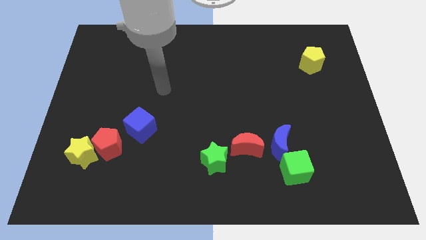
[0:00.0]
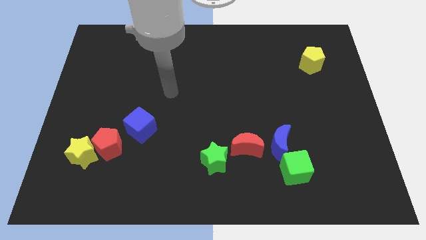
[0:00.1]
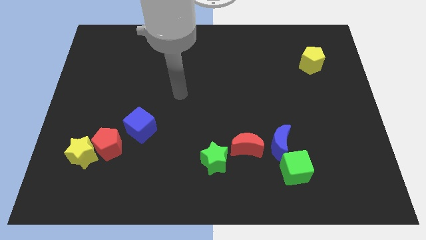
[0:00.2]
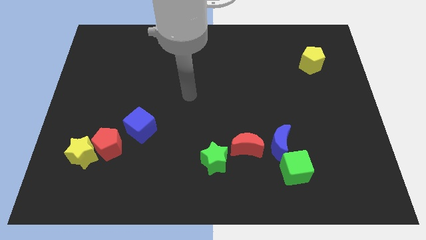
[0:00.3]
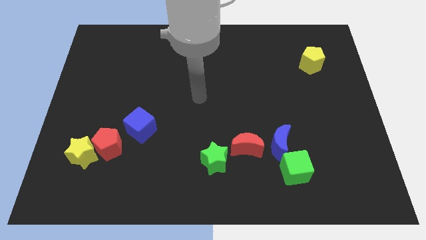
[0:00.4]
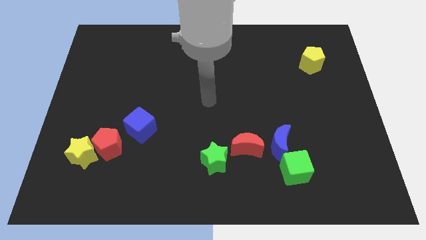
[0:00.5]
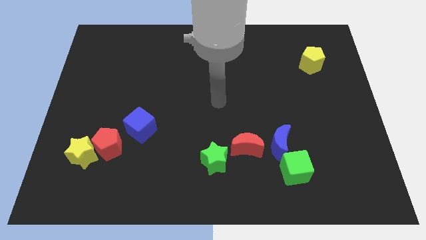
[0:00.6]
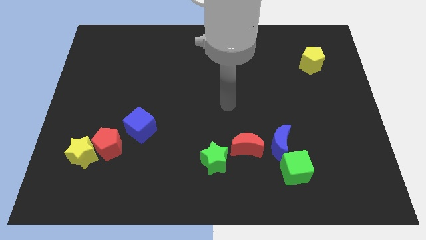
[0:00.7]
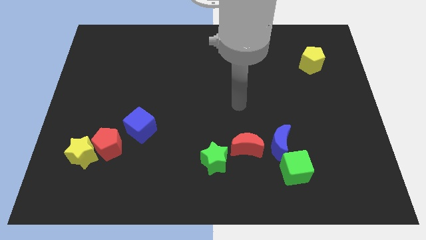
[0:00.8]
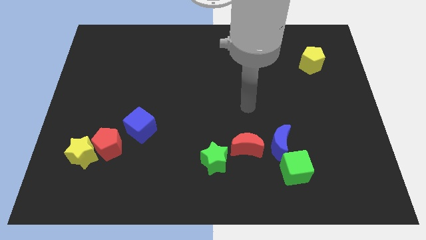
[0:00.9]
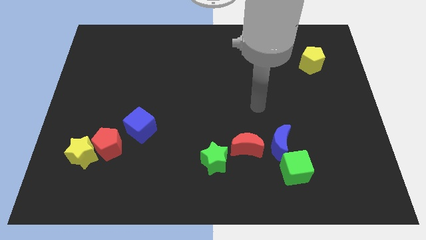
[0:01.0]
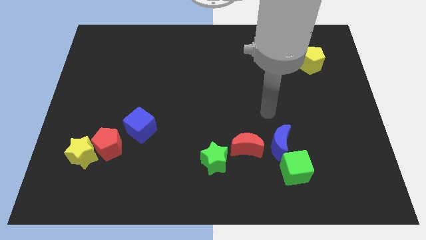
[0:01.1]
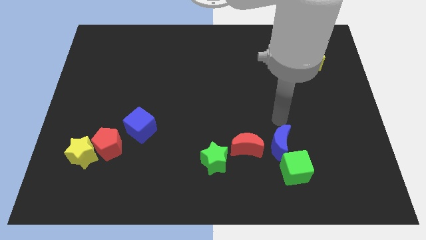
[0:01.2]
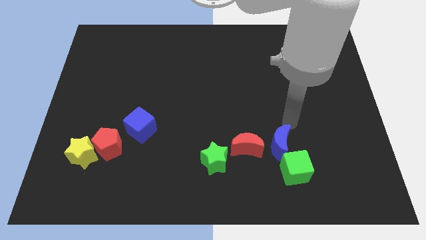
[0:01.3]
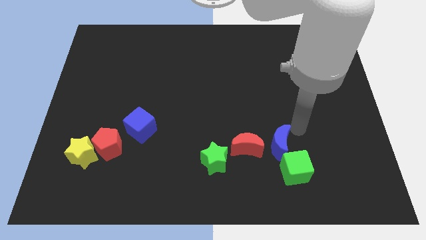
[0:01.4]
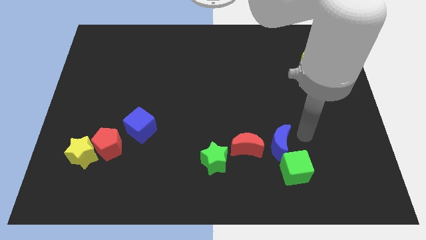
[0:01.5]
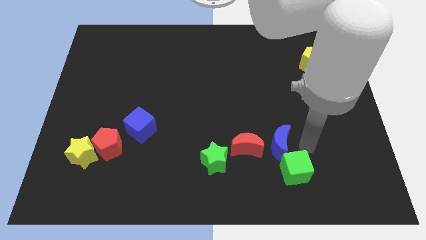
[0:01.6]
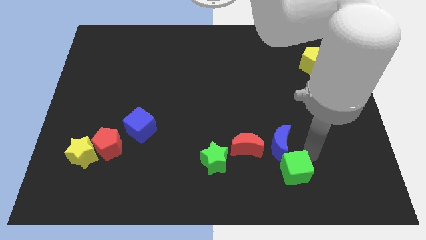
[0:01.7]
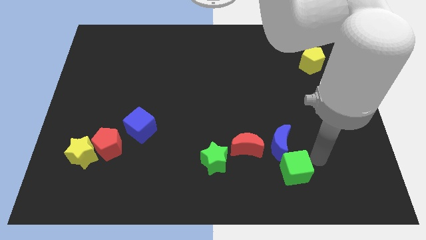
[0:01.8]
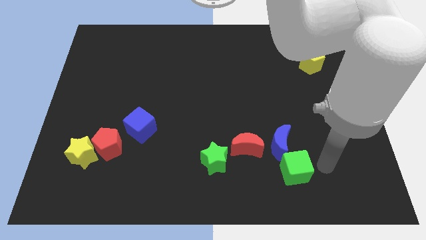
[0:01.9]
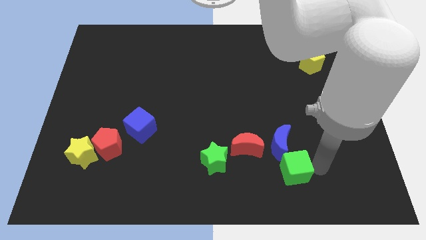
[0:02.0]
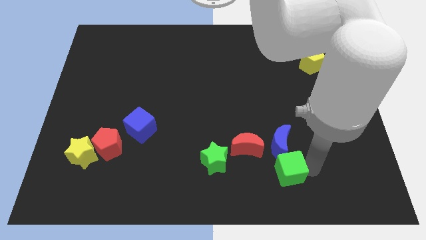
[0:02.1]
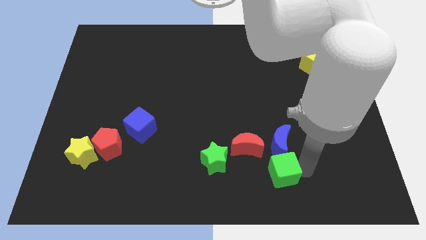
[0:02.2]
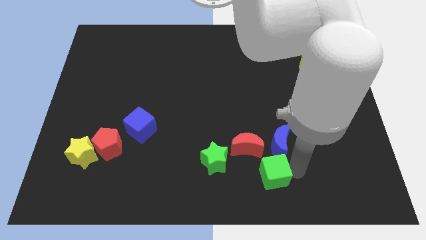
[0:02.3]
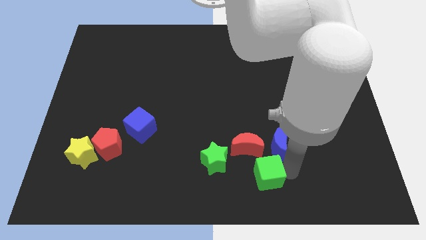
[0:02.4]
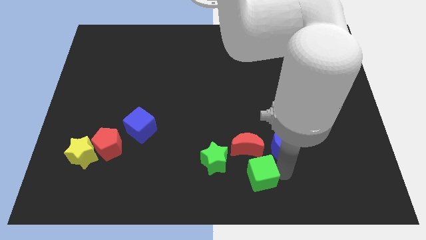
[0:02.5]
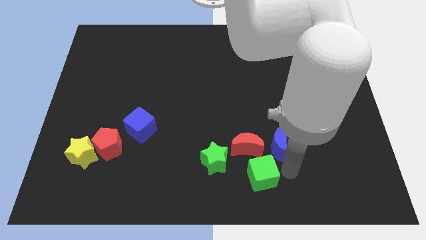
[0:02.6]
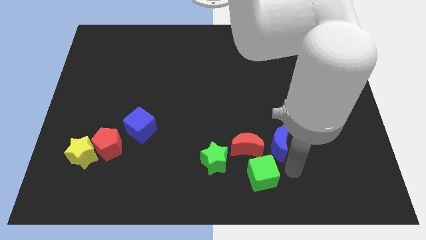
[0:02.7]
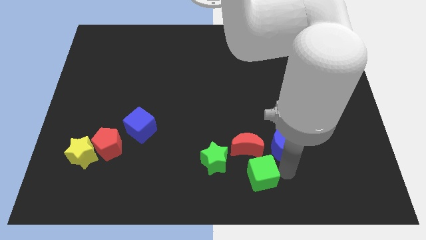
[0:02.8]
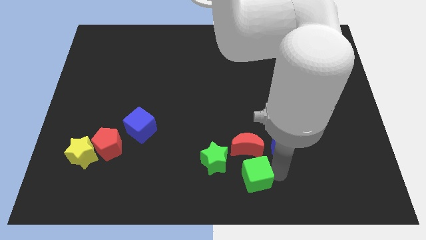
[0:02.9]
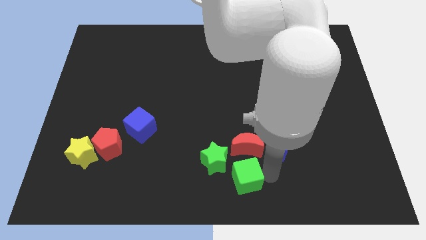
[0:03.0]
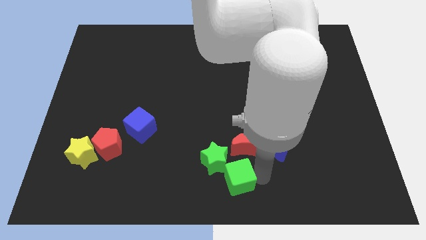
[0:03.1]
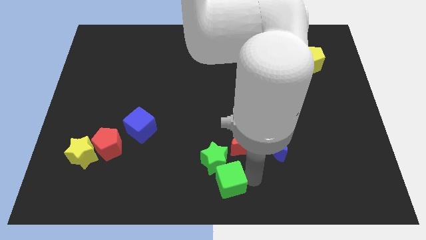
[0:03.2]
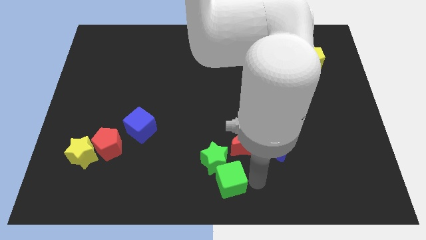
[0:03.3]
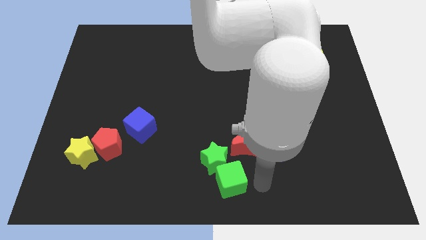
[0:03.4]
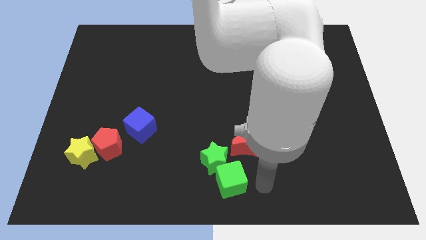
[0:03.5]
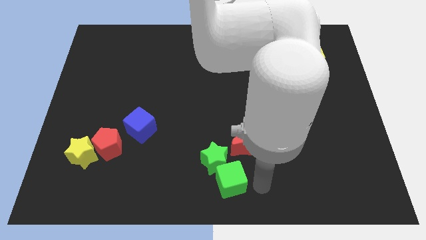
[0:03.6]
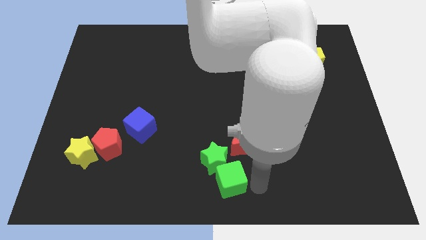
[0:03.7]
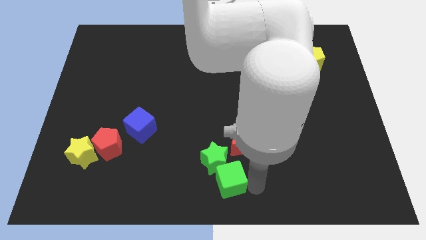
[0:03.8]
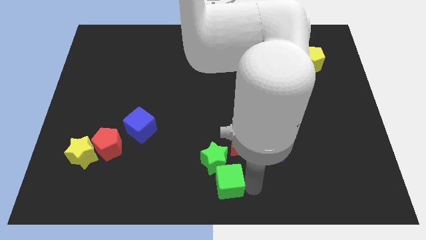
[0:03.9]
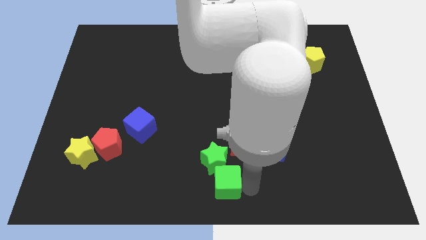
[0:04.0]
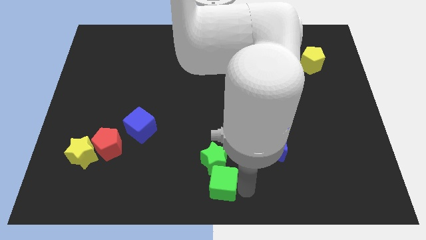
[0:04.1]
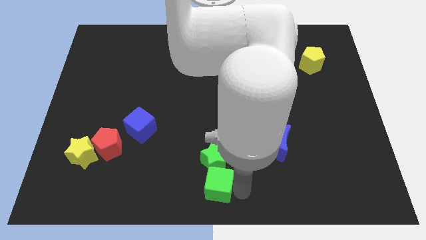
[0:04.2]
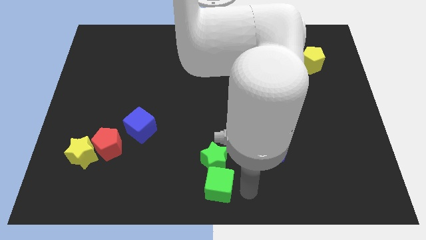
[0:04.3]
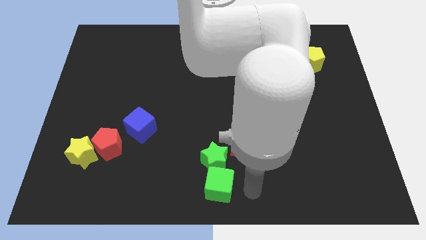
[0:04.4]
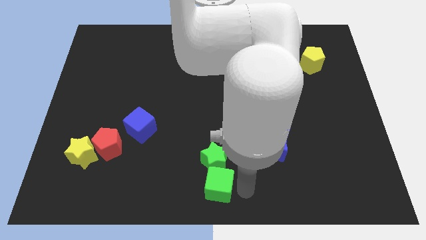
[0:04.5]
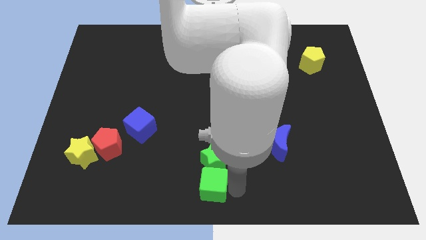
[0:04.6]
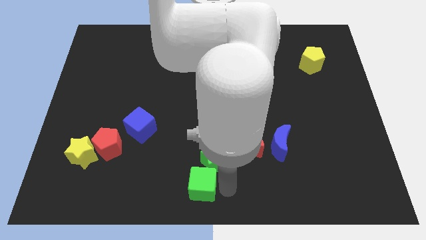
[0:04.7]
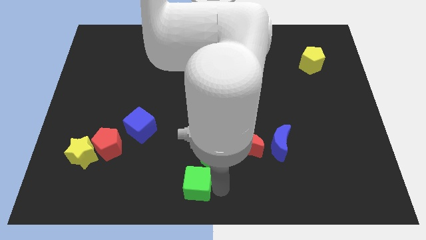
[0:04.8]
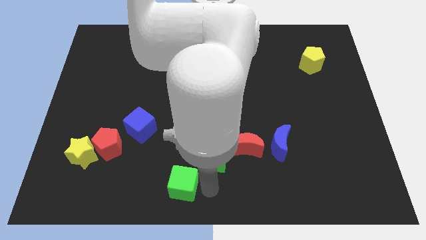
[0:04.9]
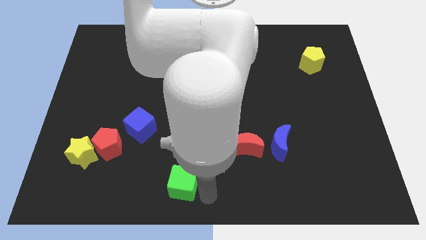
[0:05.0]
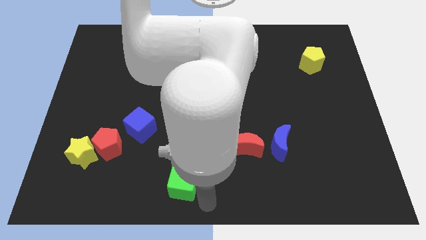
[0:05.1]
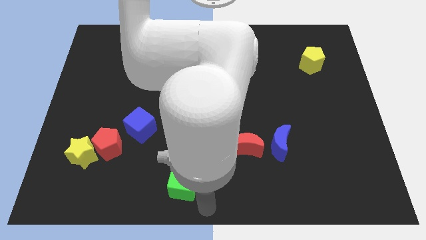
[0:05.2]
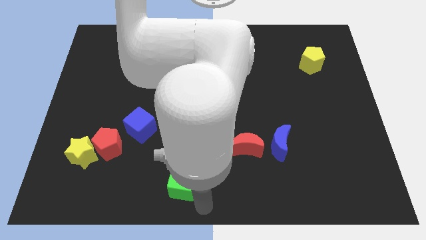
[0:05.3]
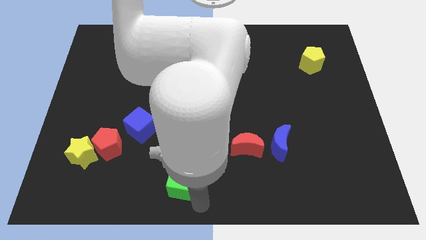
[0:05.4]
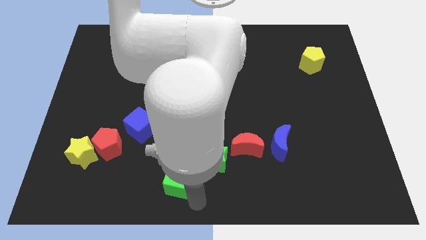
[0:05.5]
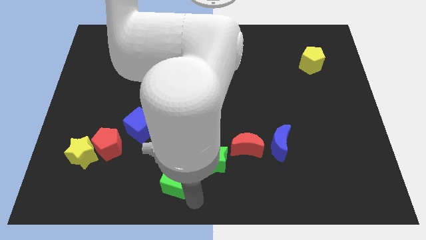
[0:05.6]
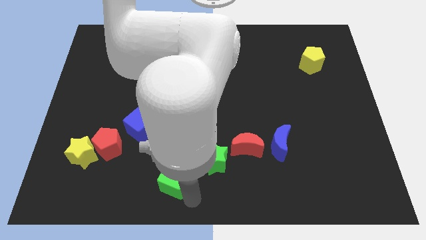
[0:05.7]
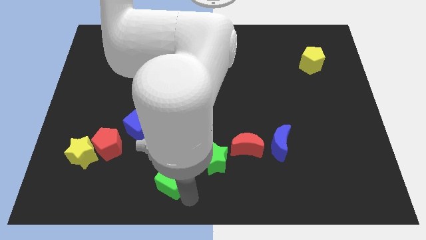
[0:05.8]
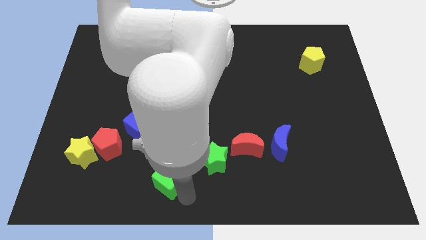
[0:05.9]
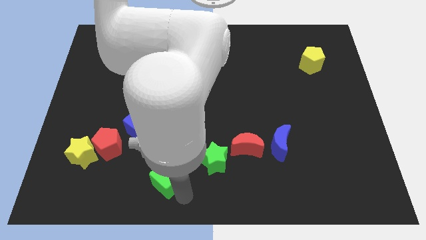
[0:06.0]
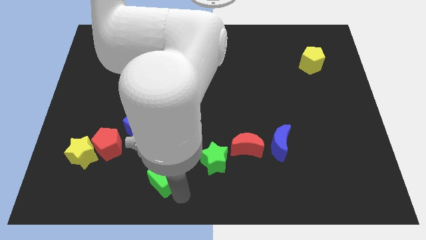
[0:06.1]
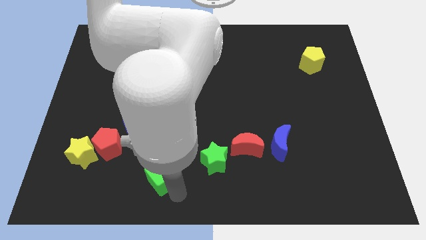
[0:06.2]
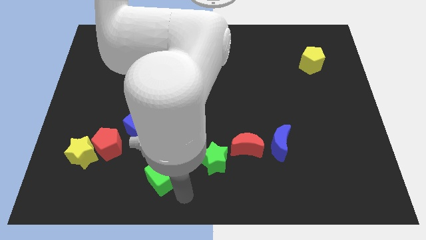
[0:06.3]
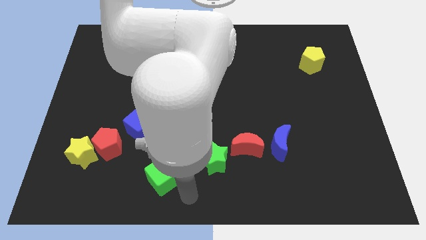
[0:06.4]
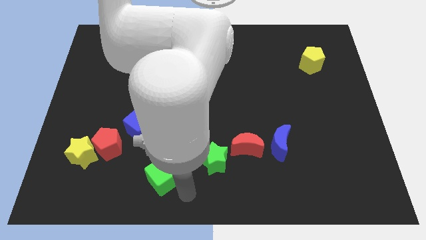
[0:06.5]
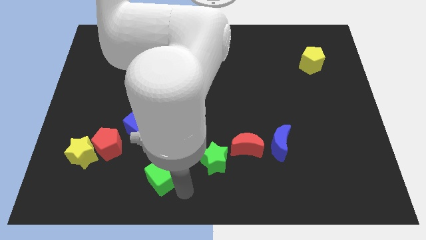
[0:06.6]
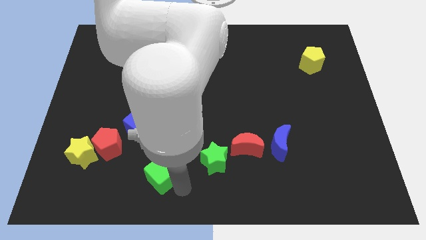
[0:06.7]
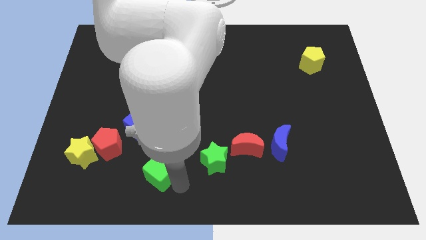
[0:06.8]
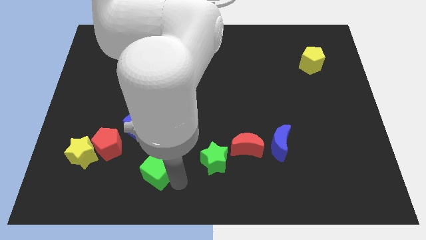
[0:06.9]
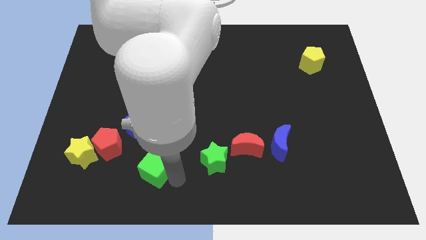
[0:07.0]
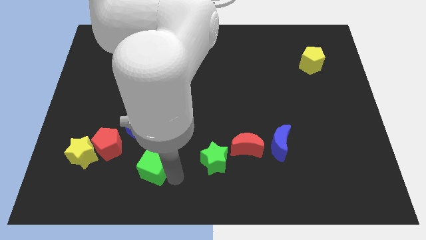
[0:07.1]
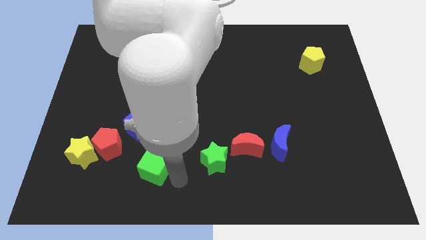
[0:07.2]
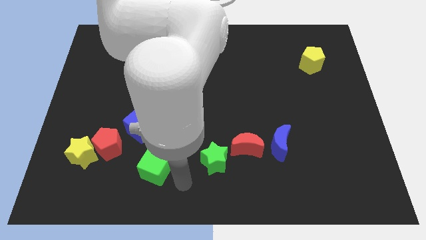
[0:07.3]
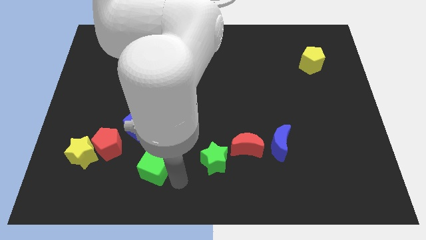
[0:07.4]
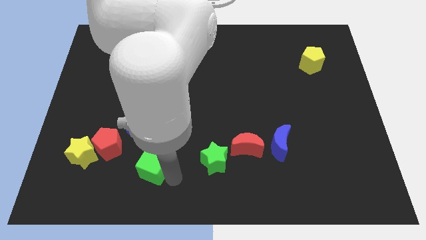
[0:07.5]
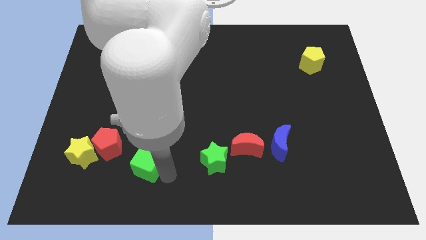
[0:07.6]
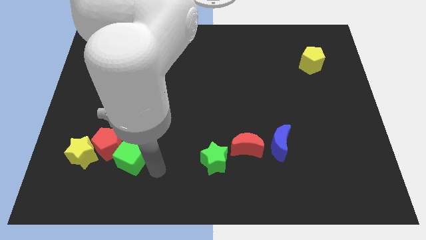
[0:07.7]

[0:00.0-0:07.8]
move the green cube next to the red pentagon
